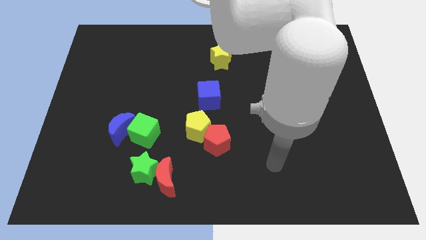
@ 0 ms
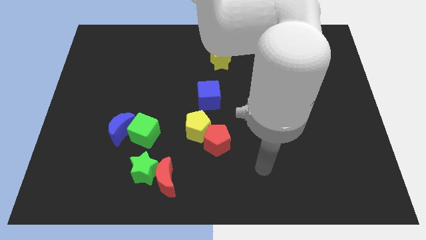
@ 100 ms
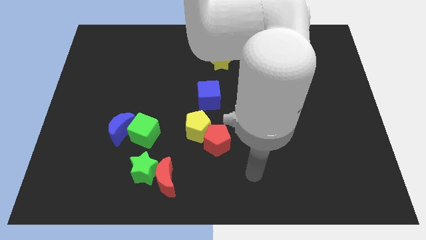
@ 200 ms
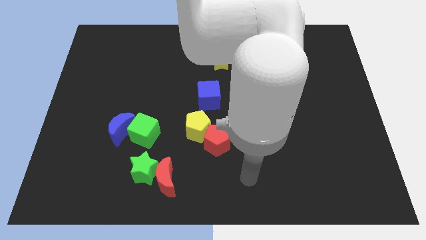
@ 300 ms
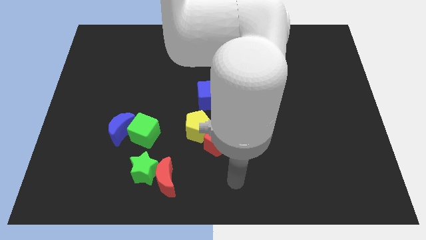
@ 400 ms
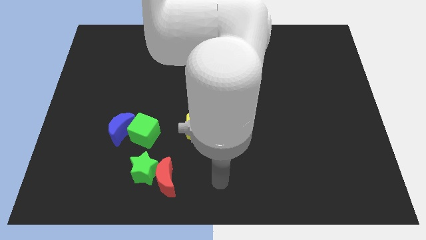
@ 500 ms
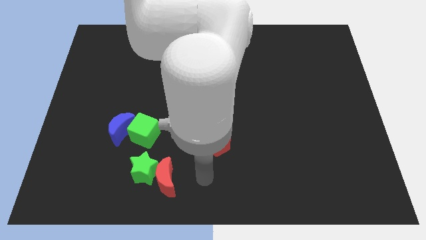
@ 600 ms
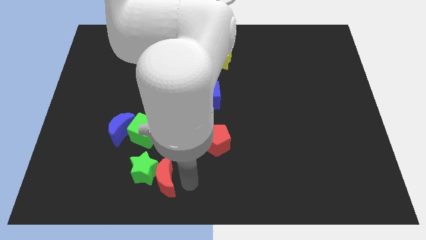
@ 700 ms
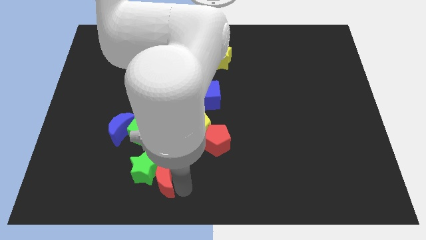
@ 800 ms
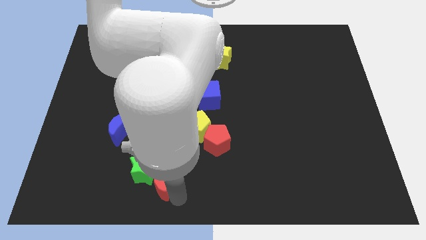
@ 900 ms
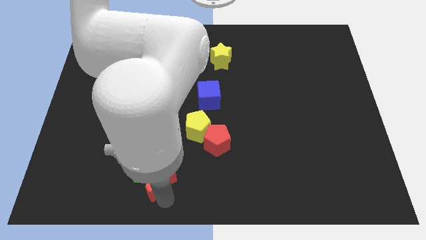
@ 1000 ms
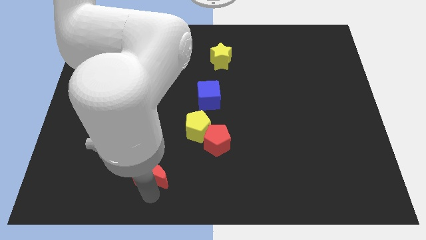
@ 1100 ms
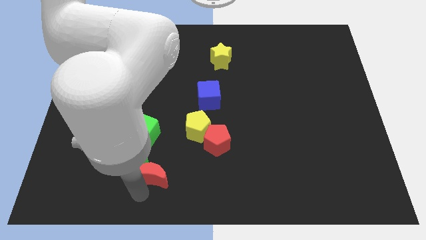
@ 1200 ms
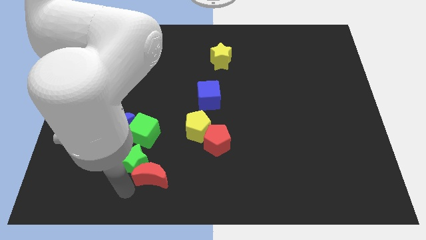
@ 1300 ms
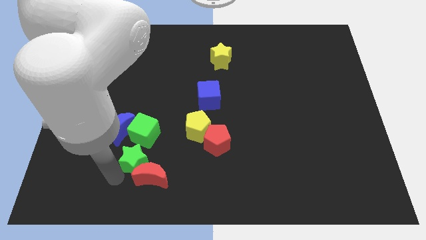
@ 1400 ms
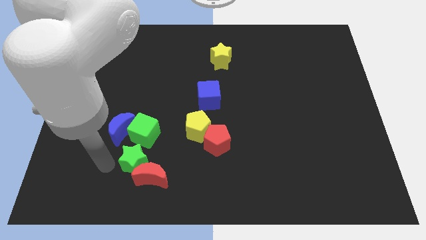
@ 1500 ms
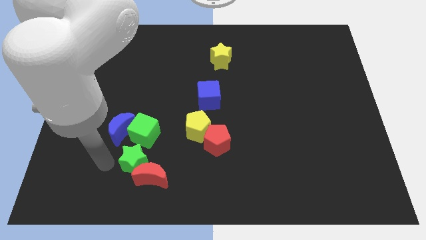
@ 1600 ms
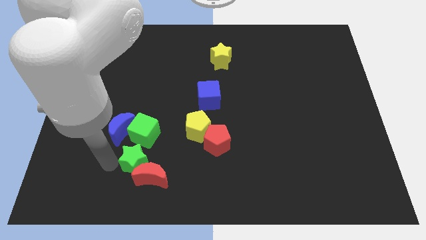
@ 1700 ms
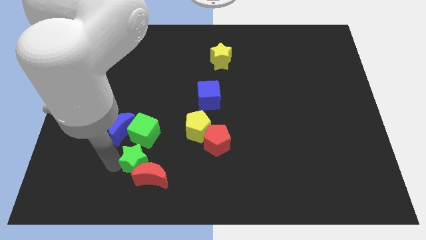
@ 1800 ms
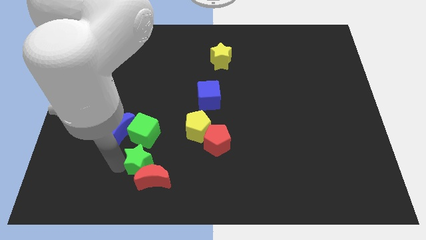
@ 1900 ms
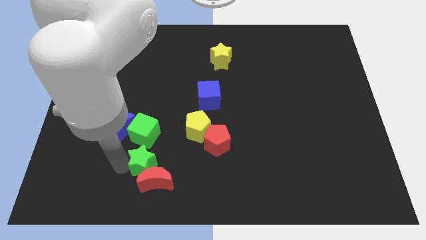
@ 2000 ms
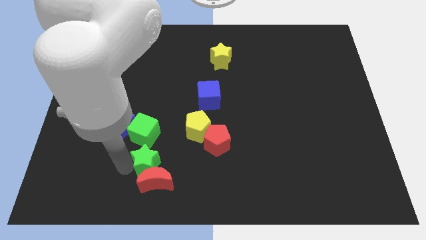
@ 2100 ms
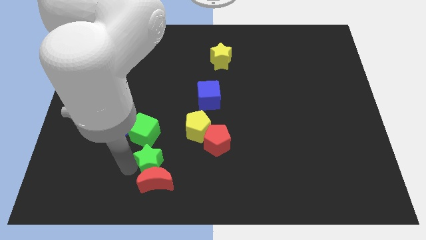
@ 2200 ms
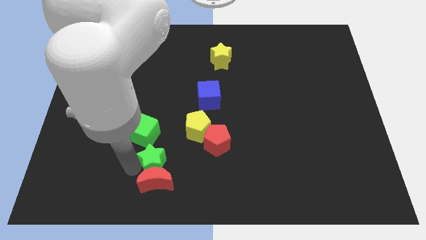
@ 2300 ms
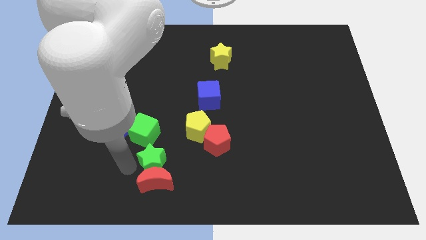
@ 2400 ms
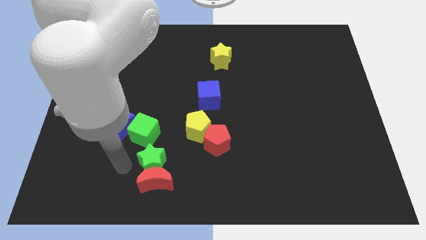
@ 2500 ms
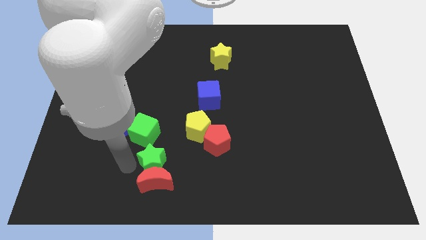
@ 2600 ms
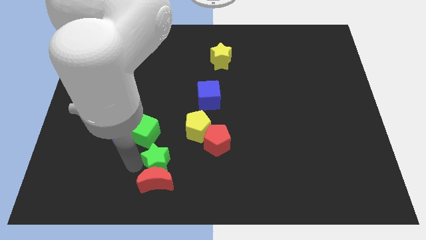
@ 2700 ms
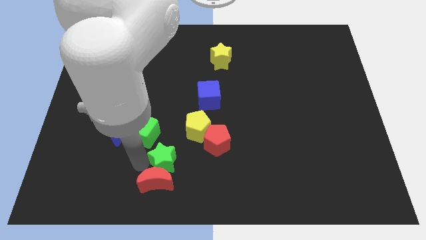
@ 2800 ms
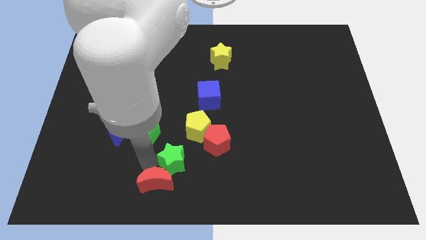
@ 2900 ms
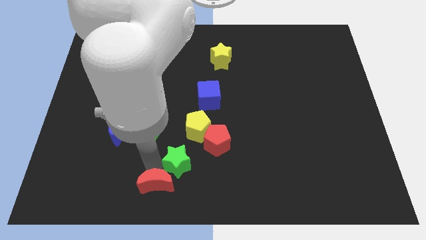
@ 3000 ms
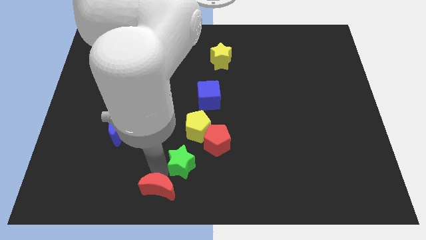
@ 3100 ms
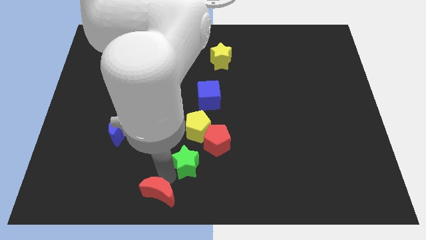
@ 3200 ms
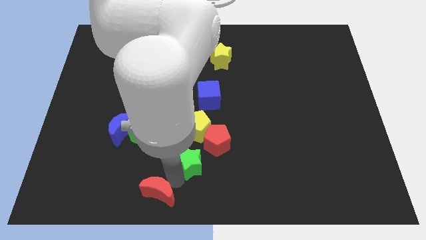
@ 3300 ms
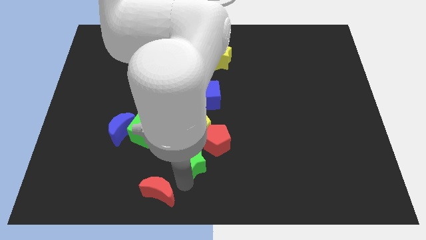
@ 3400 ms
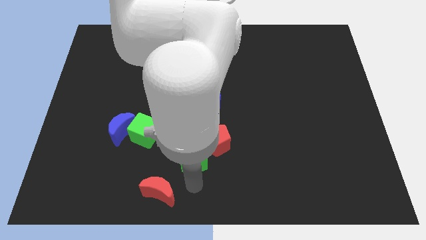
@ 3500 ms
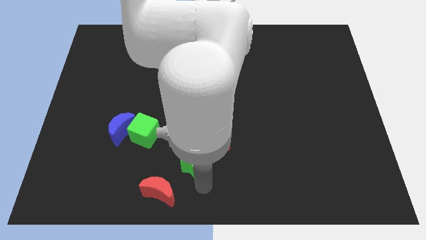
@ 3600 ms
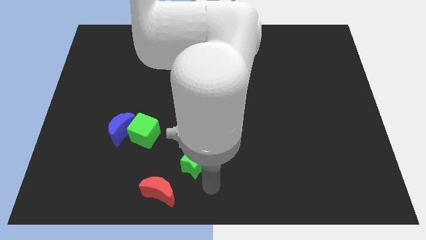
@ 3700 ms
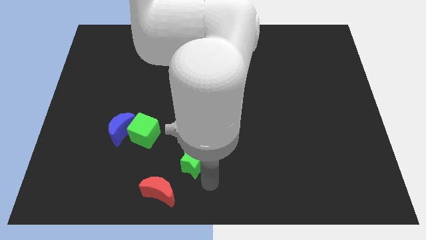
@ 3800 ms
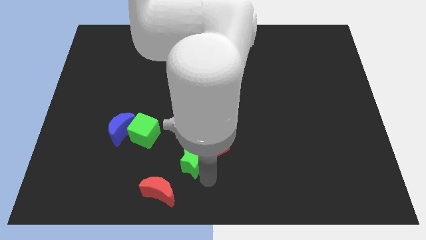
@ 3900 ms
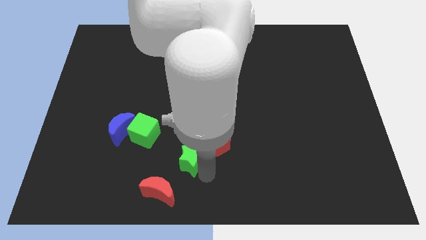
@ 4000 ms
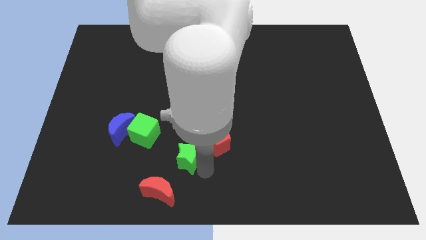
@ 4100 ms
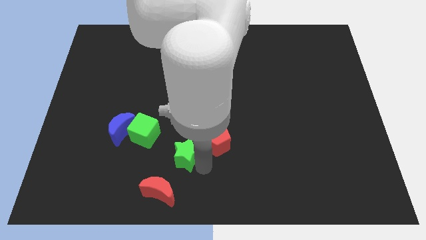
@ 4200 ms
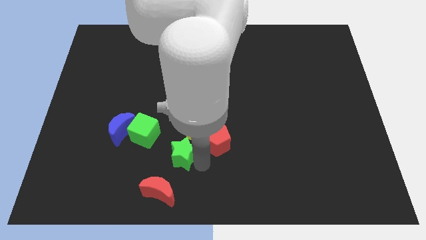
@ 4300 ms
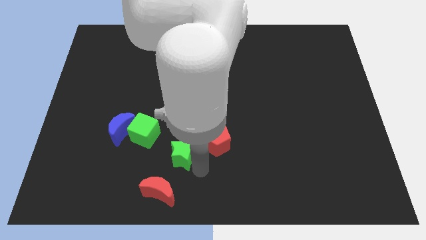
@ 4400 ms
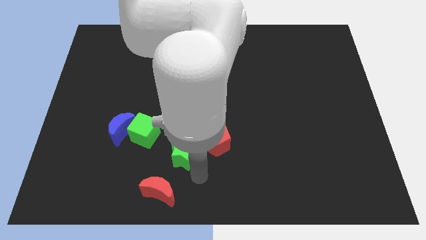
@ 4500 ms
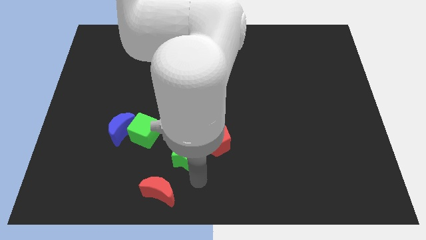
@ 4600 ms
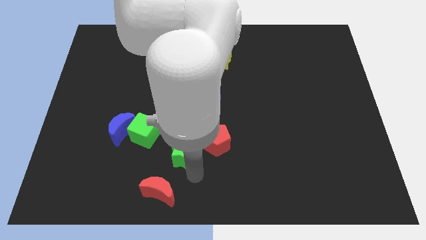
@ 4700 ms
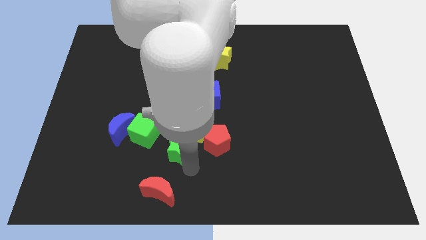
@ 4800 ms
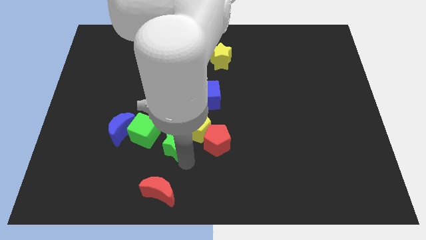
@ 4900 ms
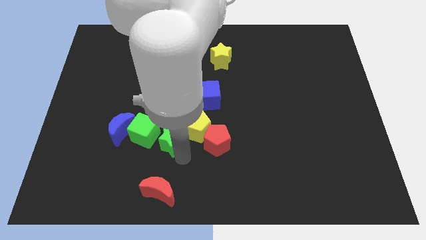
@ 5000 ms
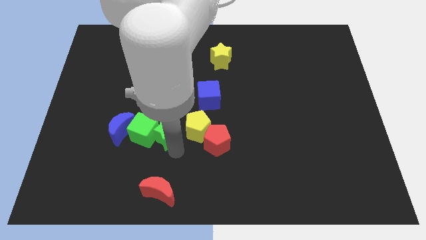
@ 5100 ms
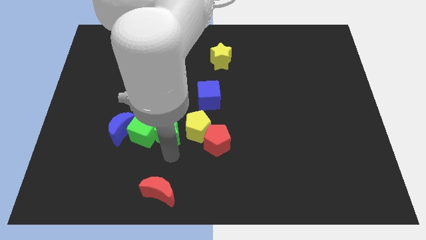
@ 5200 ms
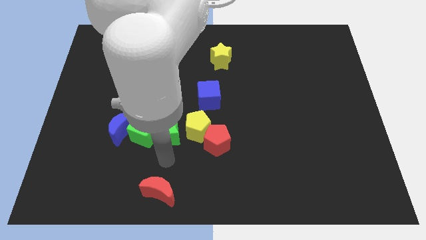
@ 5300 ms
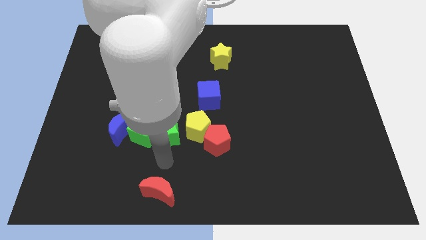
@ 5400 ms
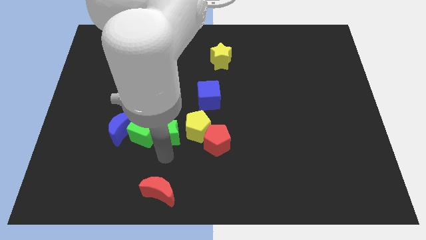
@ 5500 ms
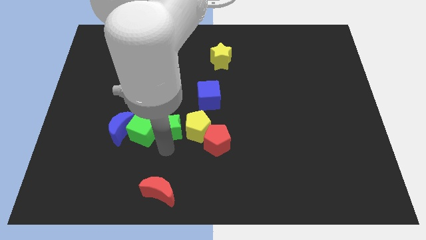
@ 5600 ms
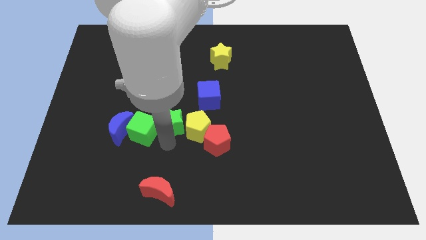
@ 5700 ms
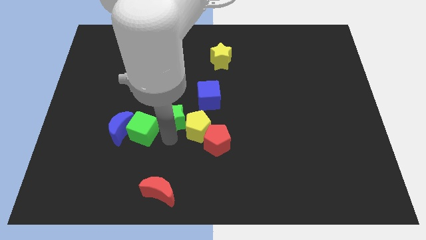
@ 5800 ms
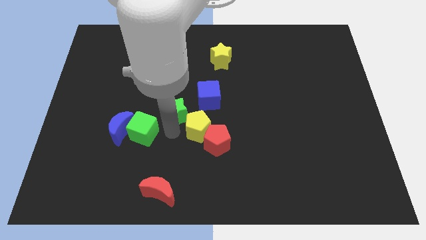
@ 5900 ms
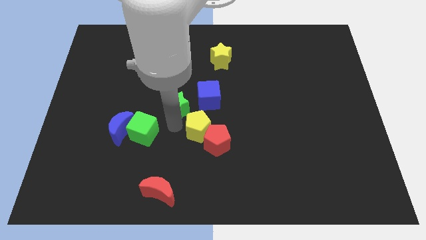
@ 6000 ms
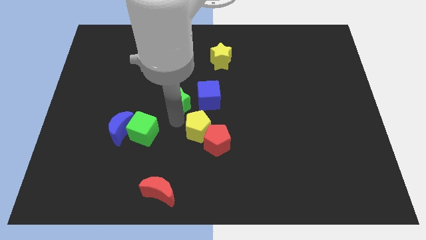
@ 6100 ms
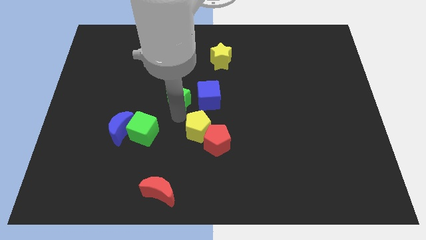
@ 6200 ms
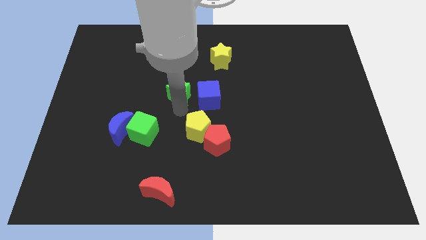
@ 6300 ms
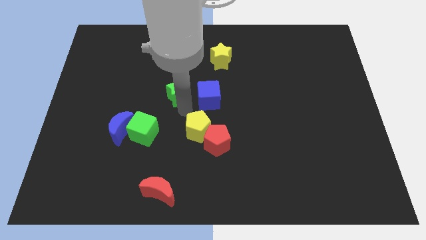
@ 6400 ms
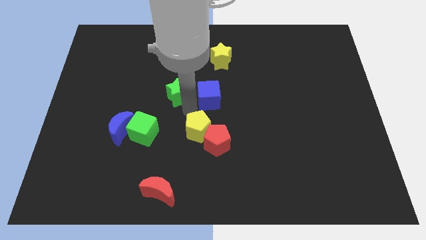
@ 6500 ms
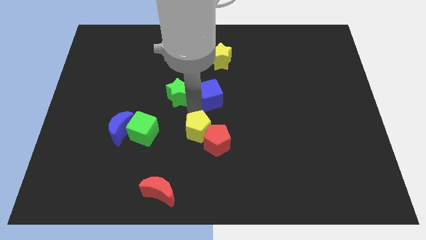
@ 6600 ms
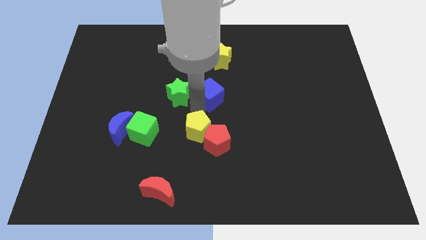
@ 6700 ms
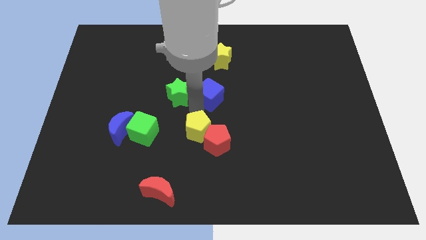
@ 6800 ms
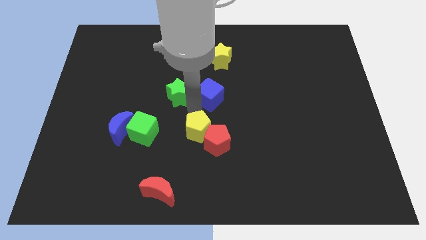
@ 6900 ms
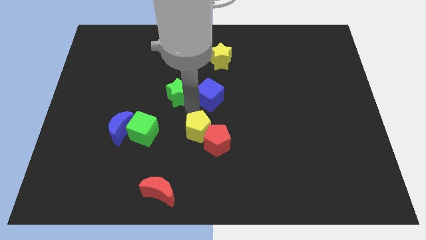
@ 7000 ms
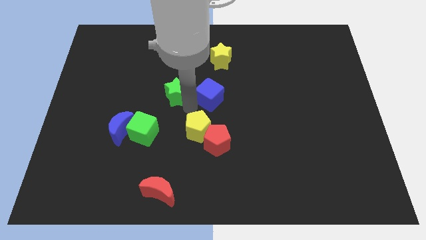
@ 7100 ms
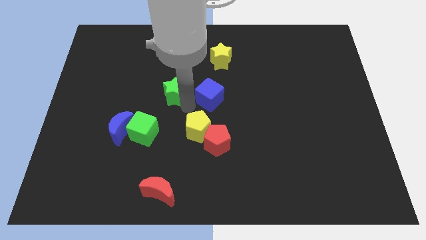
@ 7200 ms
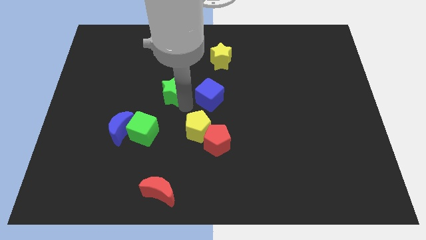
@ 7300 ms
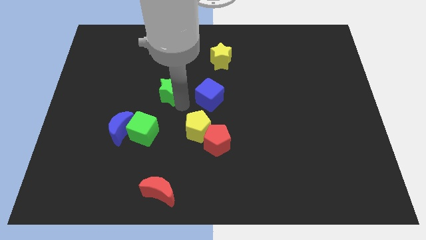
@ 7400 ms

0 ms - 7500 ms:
slide the green star up

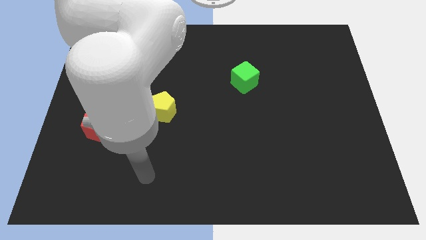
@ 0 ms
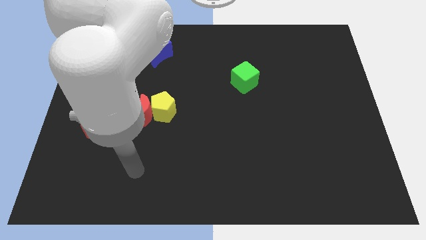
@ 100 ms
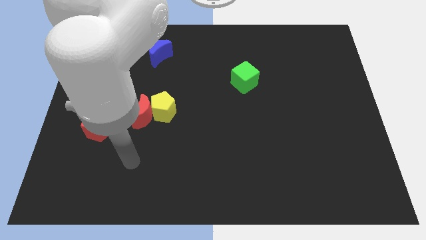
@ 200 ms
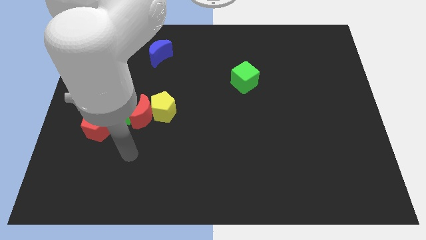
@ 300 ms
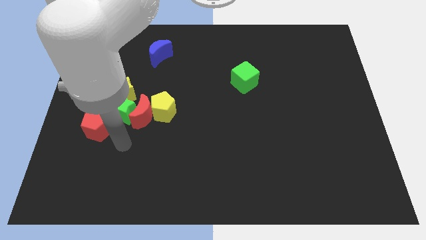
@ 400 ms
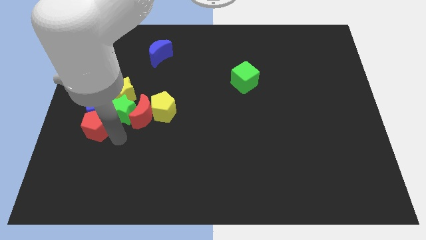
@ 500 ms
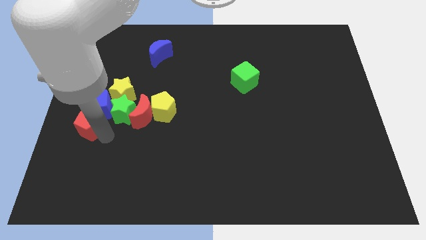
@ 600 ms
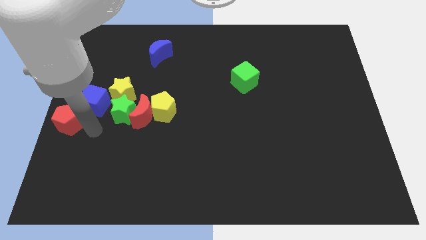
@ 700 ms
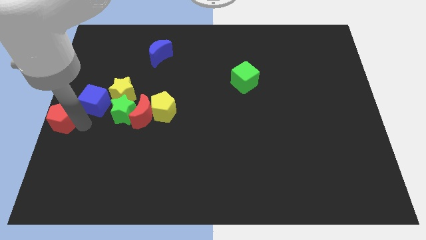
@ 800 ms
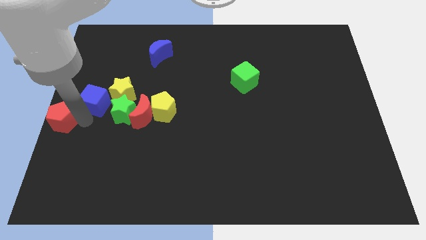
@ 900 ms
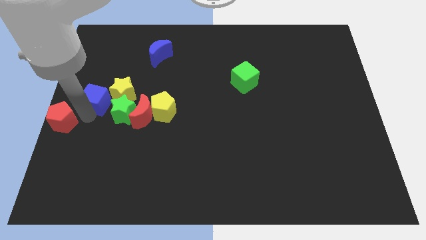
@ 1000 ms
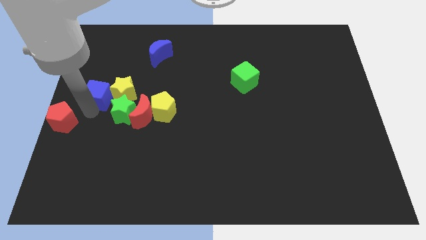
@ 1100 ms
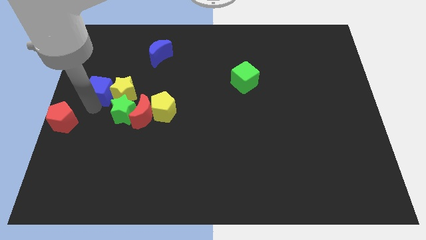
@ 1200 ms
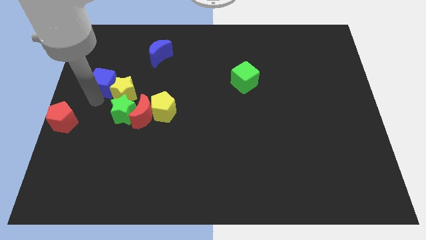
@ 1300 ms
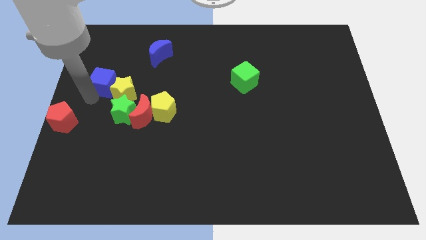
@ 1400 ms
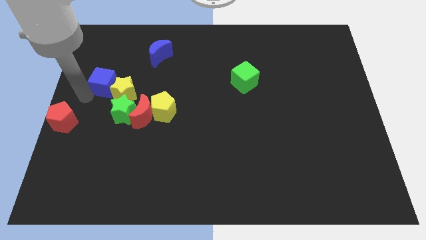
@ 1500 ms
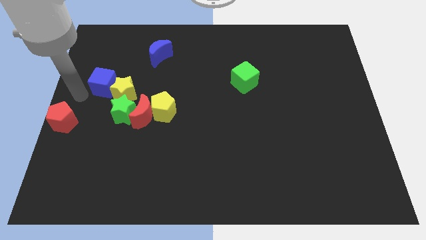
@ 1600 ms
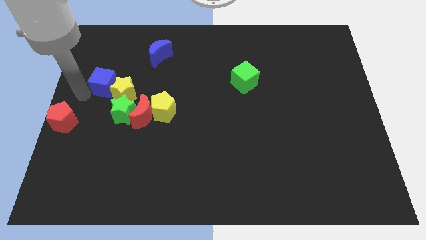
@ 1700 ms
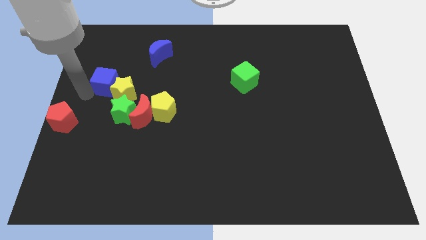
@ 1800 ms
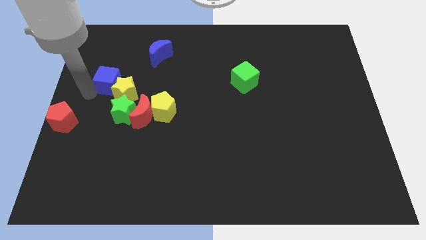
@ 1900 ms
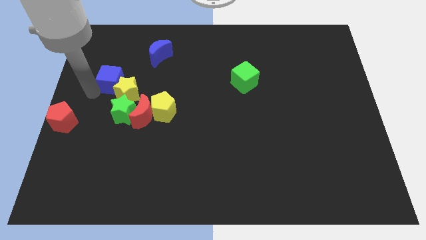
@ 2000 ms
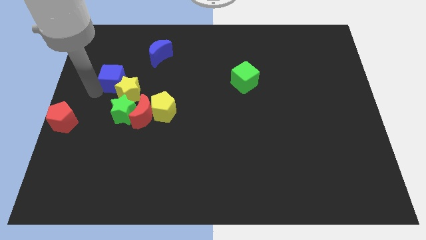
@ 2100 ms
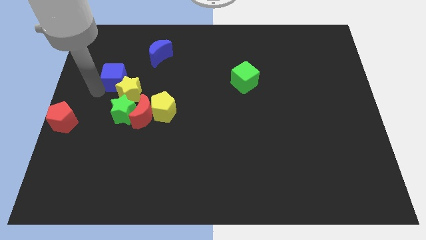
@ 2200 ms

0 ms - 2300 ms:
push the blue cube a little bit upwards and then right
